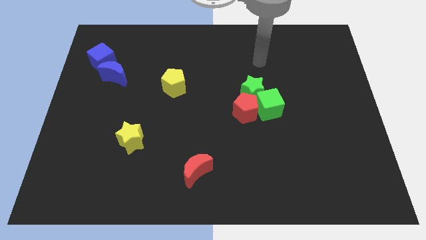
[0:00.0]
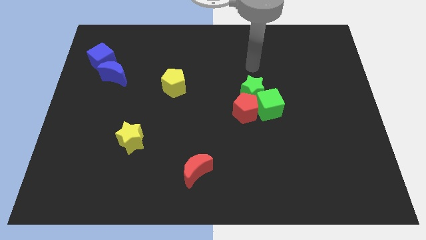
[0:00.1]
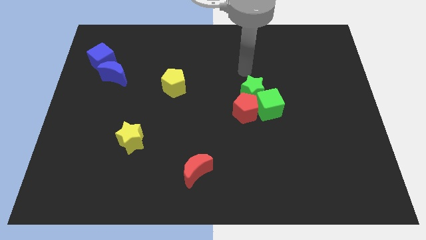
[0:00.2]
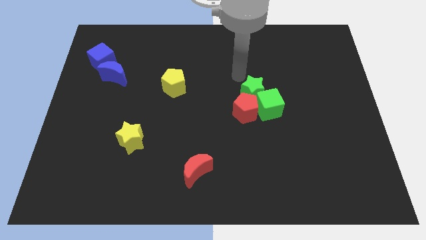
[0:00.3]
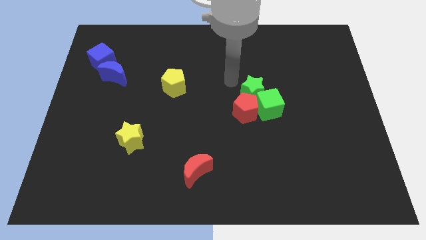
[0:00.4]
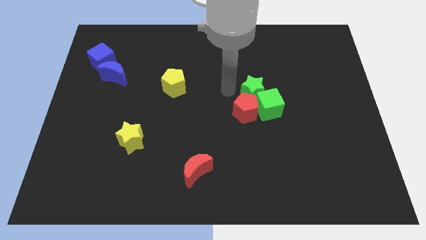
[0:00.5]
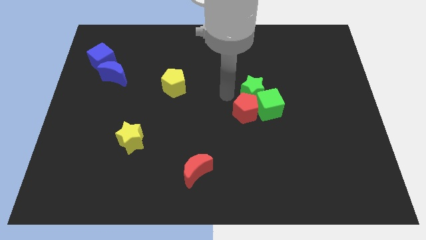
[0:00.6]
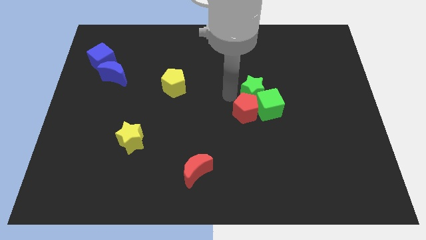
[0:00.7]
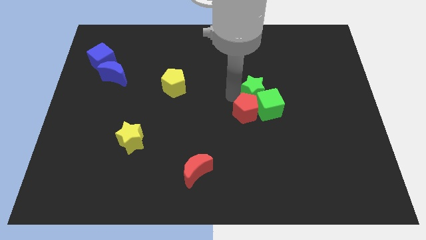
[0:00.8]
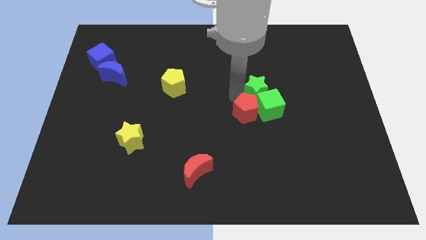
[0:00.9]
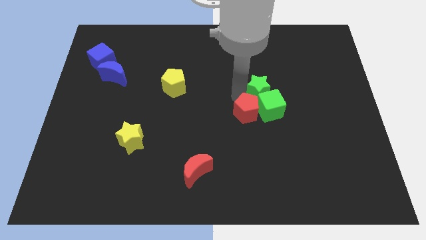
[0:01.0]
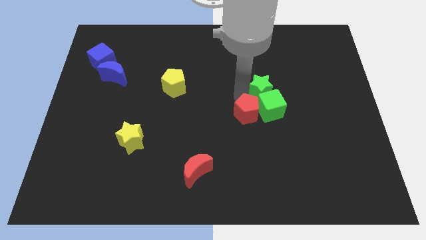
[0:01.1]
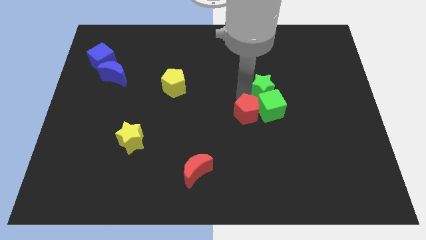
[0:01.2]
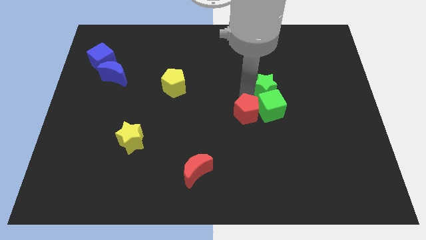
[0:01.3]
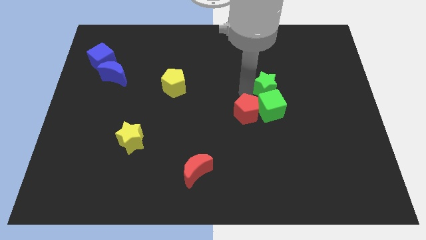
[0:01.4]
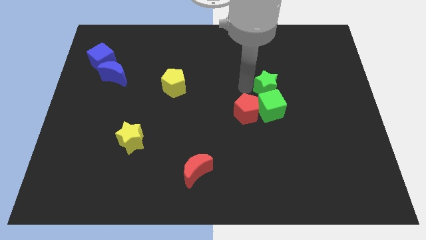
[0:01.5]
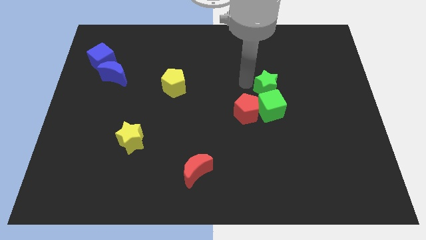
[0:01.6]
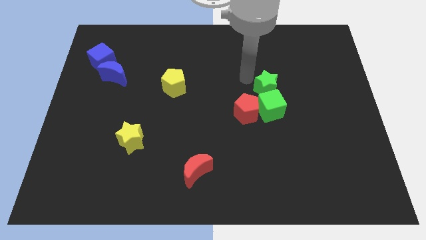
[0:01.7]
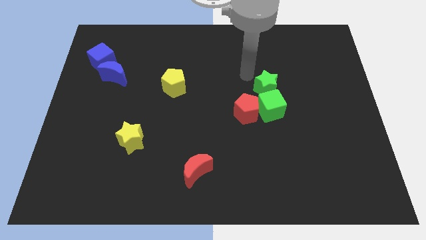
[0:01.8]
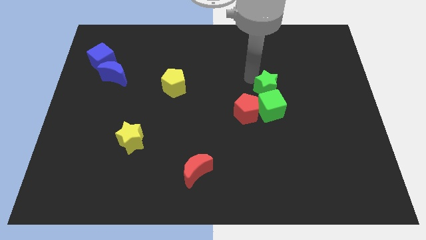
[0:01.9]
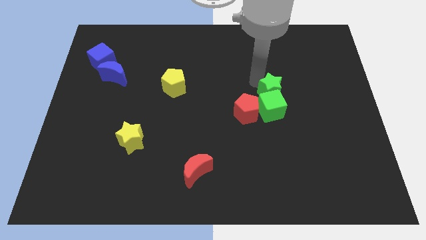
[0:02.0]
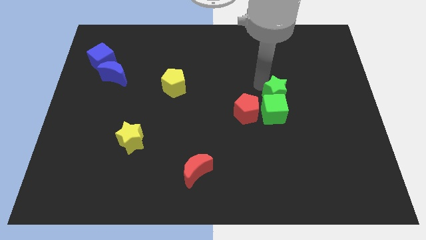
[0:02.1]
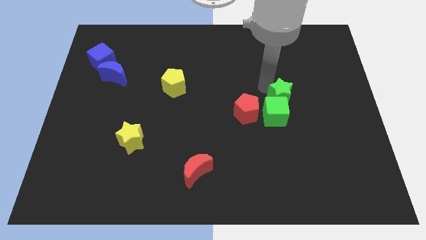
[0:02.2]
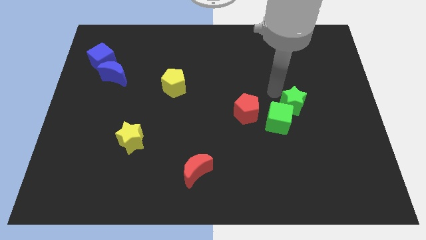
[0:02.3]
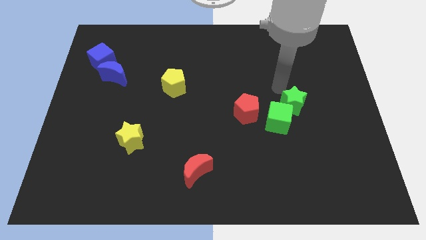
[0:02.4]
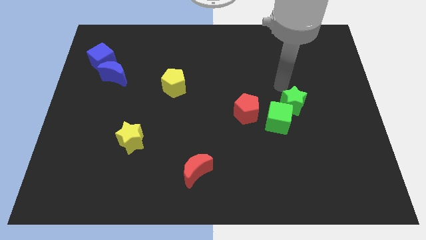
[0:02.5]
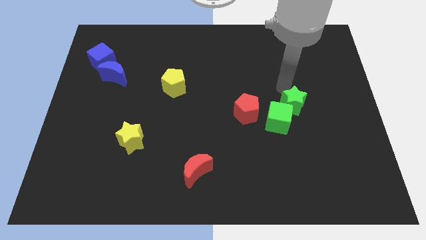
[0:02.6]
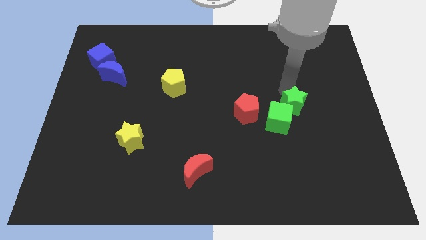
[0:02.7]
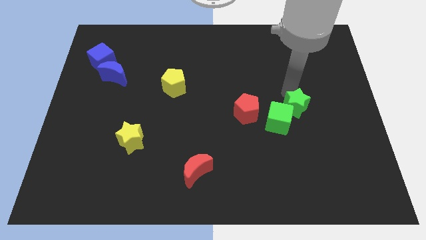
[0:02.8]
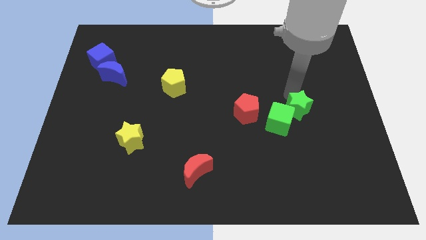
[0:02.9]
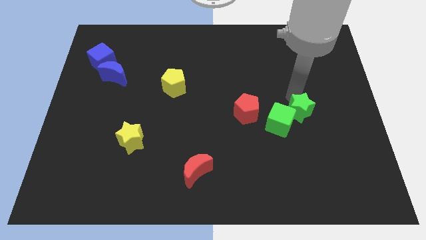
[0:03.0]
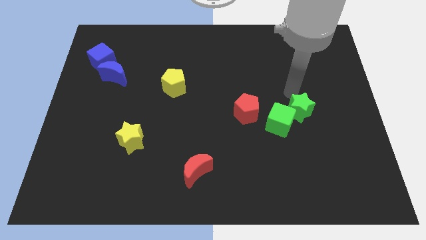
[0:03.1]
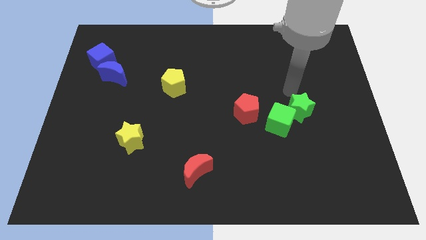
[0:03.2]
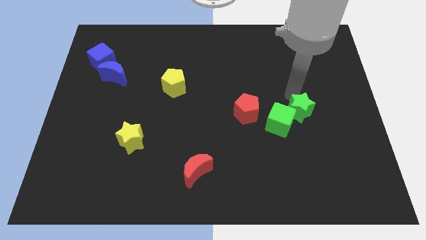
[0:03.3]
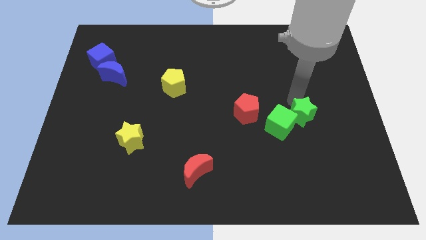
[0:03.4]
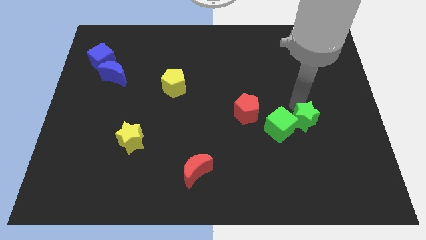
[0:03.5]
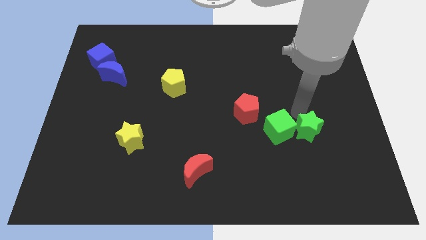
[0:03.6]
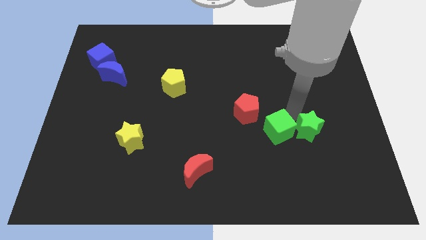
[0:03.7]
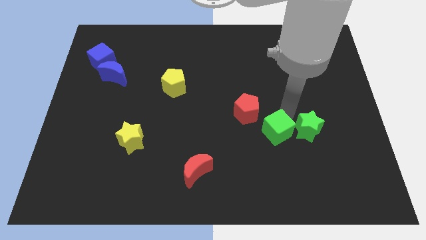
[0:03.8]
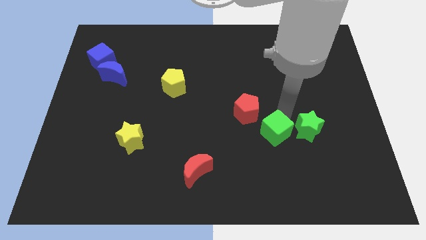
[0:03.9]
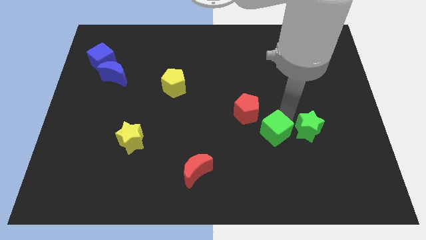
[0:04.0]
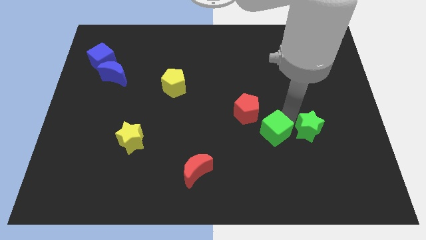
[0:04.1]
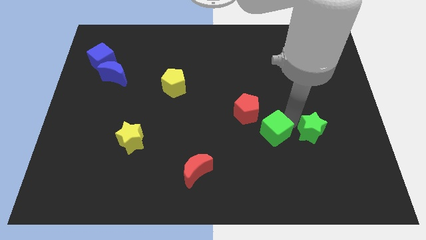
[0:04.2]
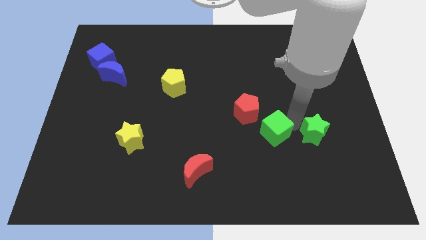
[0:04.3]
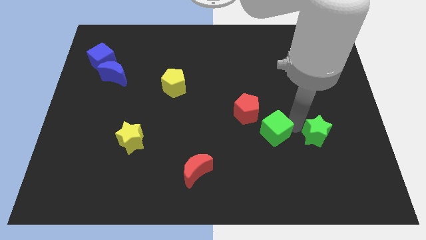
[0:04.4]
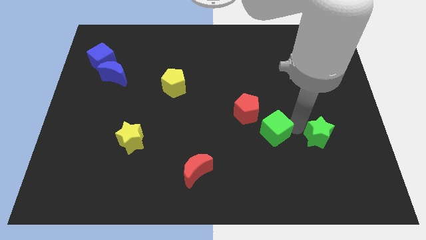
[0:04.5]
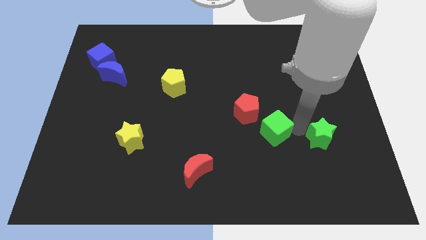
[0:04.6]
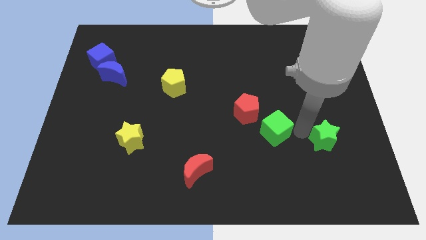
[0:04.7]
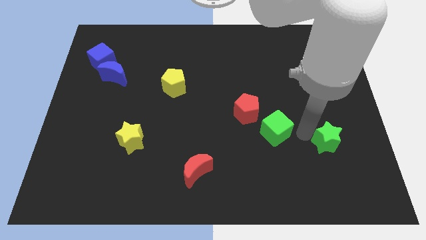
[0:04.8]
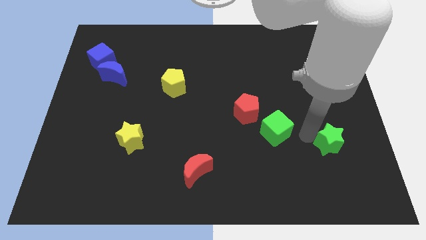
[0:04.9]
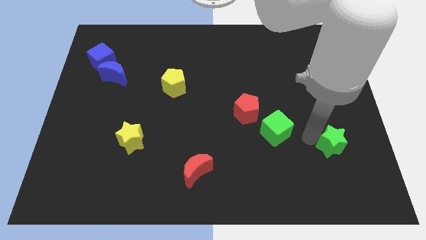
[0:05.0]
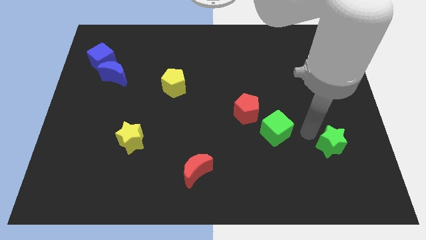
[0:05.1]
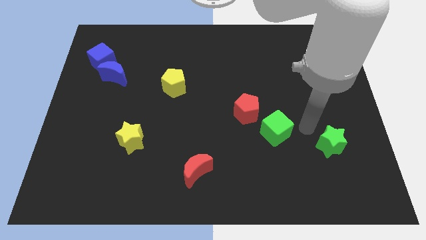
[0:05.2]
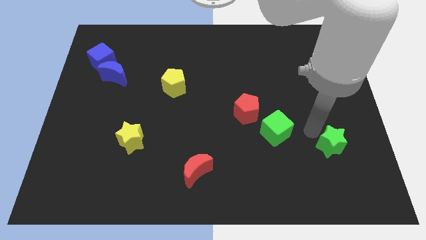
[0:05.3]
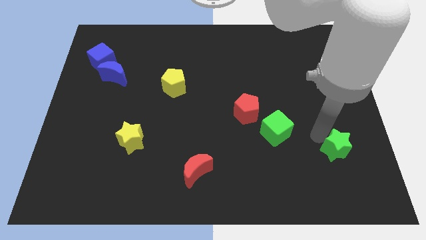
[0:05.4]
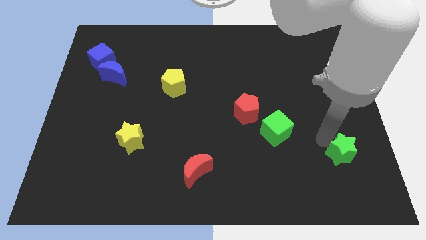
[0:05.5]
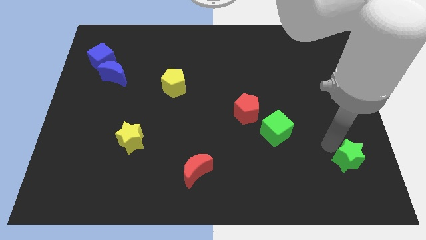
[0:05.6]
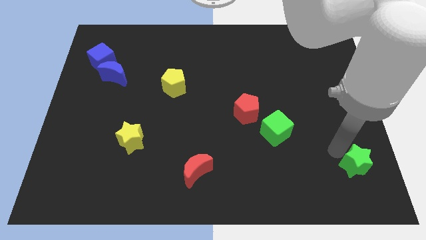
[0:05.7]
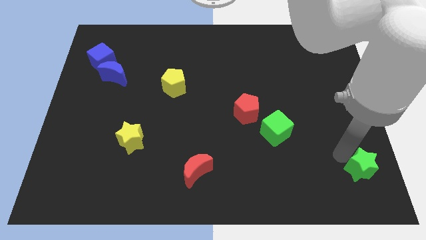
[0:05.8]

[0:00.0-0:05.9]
move the green star to the bottom right corner
